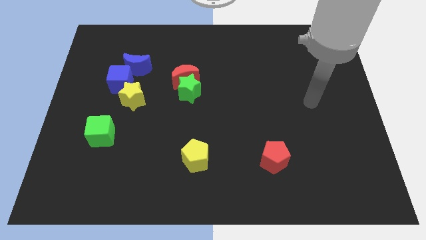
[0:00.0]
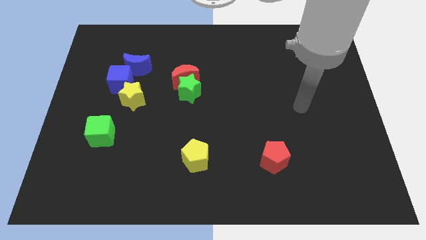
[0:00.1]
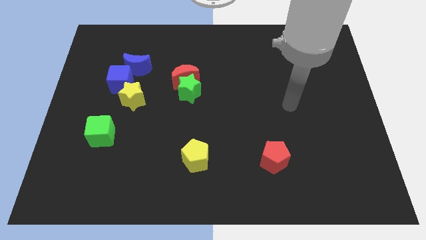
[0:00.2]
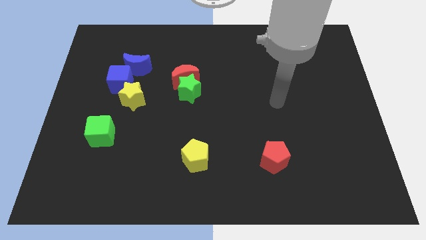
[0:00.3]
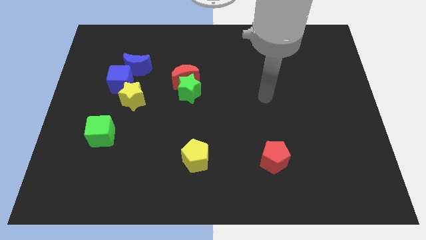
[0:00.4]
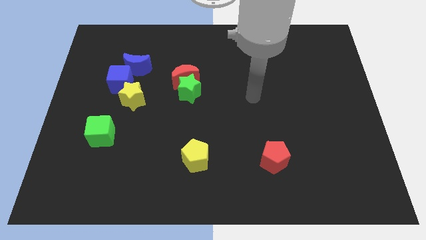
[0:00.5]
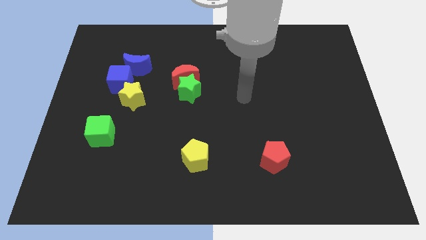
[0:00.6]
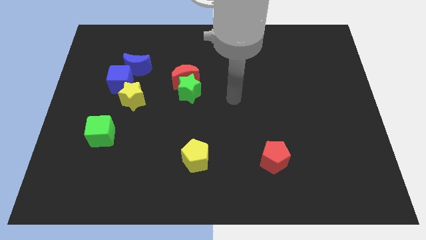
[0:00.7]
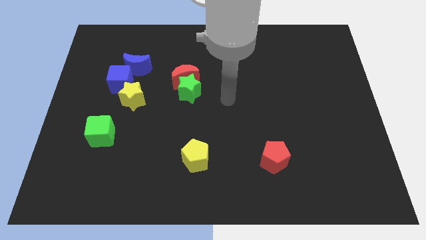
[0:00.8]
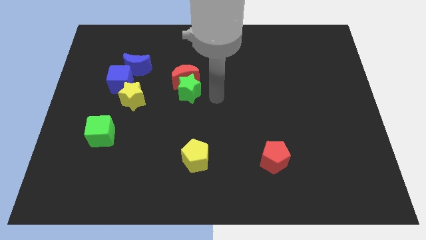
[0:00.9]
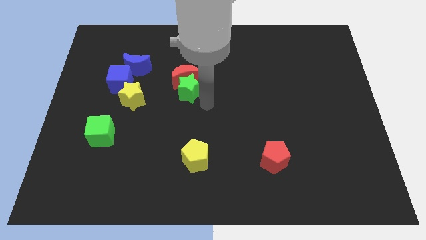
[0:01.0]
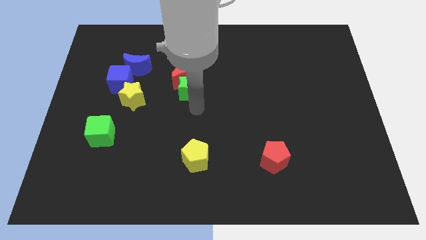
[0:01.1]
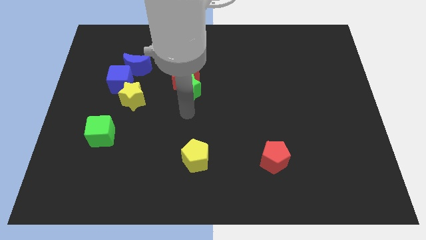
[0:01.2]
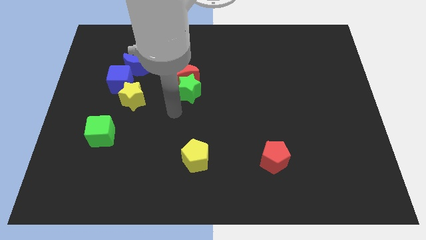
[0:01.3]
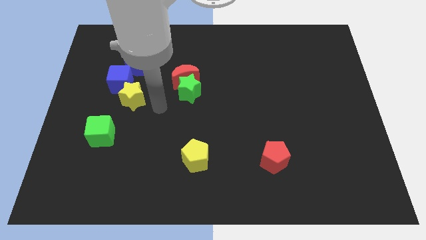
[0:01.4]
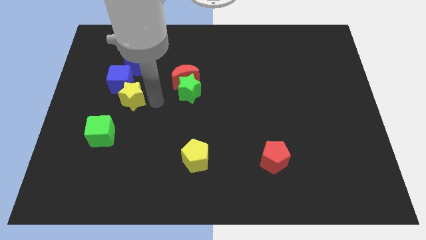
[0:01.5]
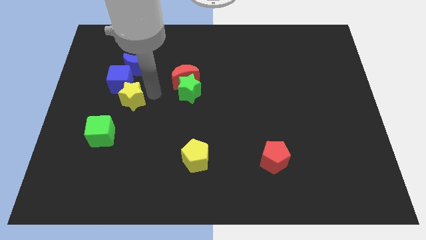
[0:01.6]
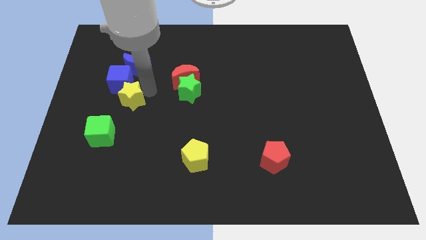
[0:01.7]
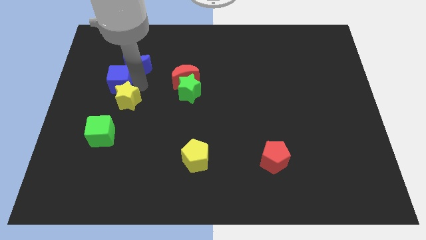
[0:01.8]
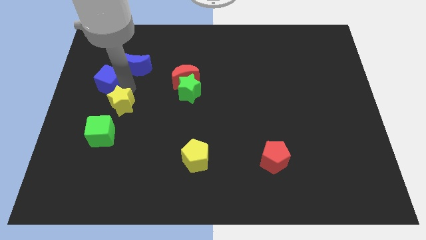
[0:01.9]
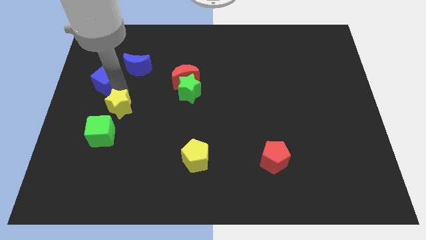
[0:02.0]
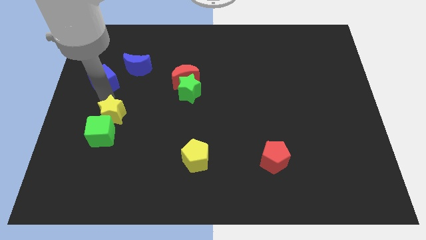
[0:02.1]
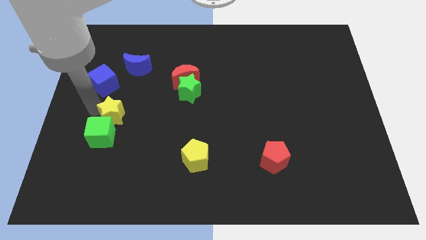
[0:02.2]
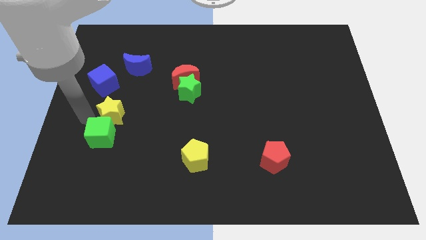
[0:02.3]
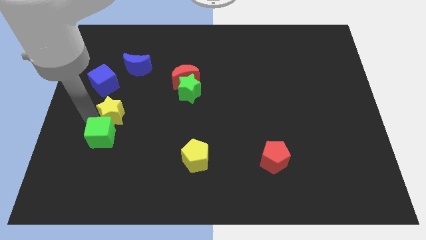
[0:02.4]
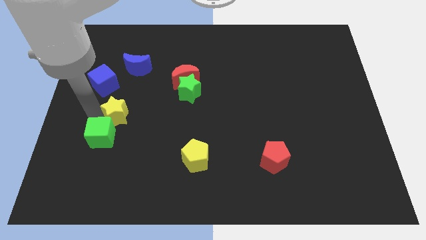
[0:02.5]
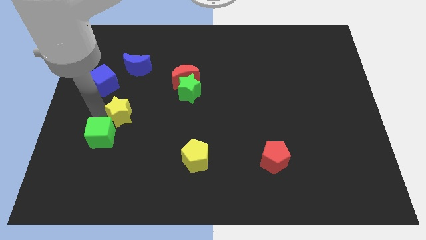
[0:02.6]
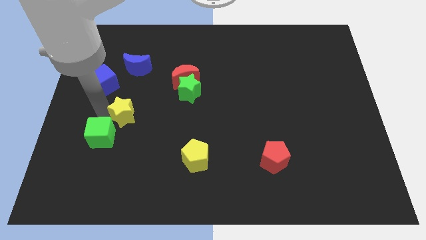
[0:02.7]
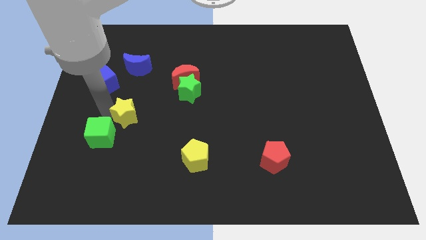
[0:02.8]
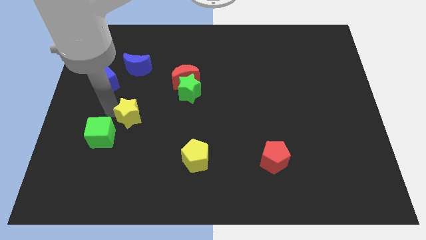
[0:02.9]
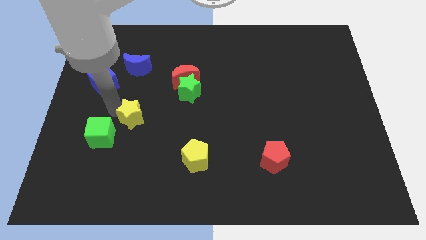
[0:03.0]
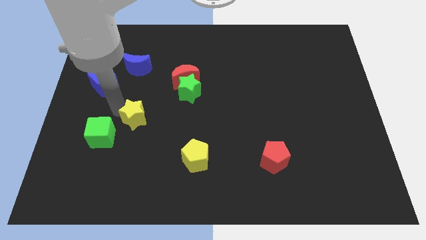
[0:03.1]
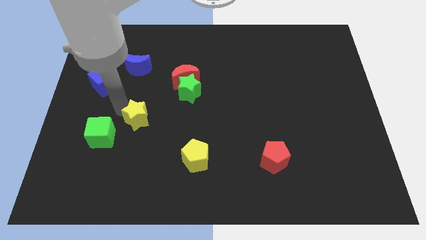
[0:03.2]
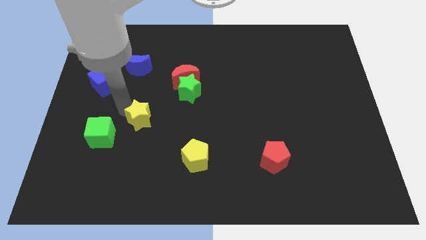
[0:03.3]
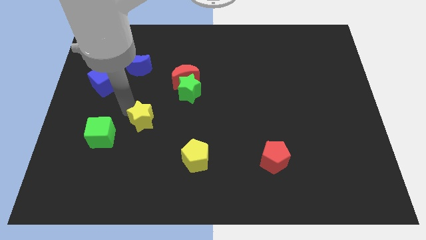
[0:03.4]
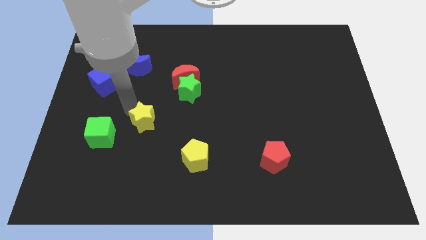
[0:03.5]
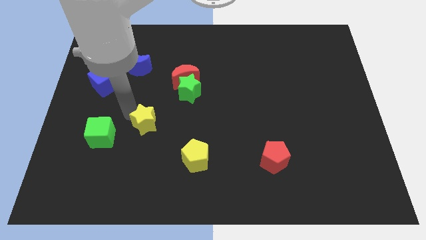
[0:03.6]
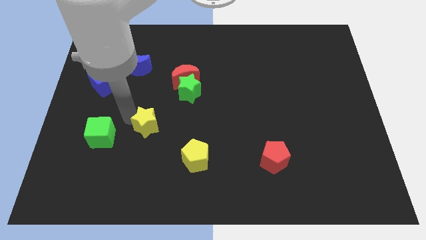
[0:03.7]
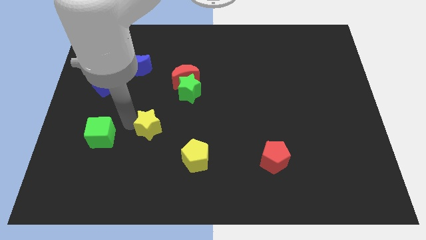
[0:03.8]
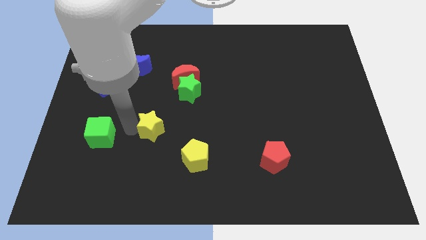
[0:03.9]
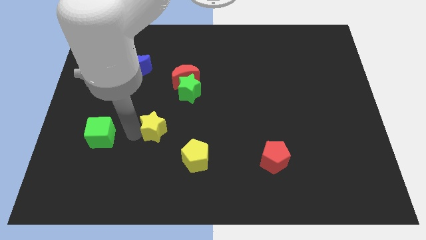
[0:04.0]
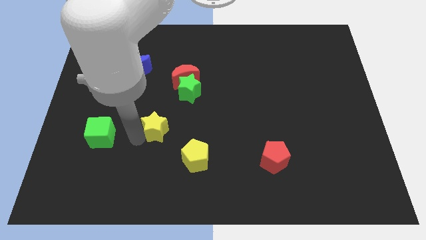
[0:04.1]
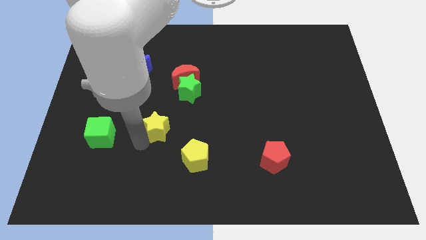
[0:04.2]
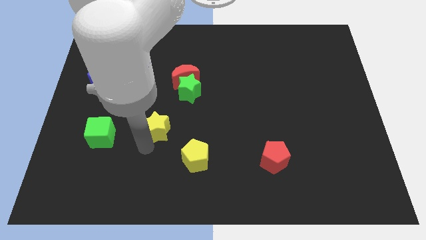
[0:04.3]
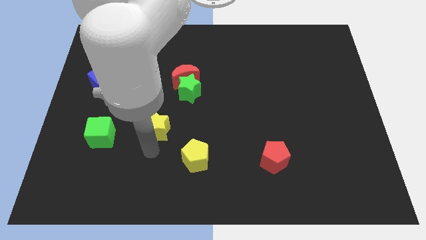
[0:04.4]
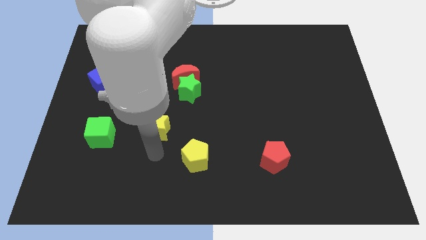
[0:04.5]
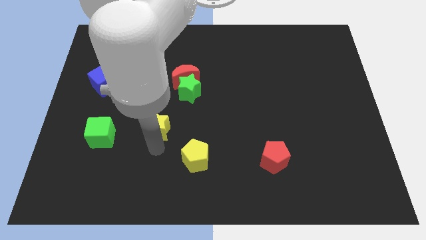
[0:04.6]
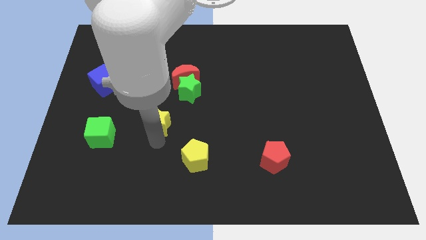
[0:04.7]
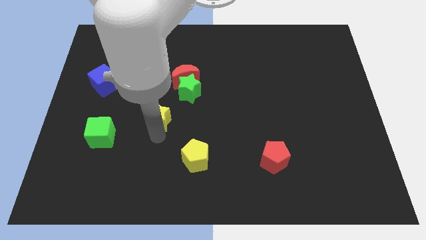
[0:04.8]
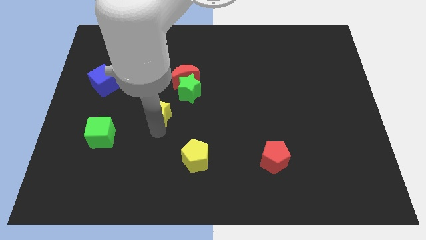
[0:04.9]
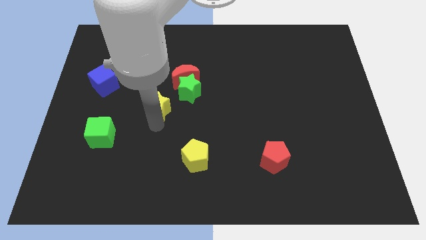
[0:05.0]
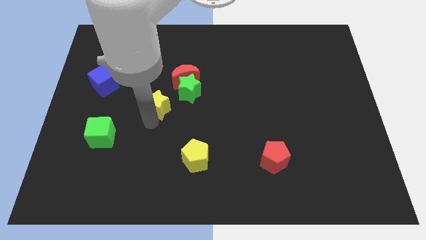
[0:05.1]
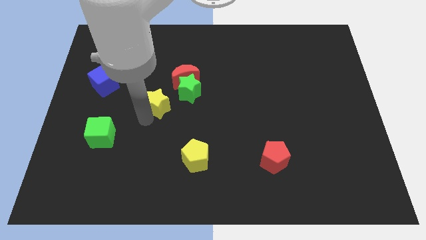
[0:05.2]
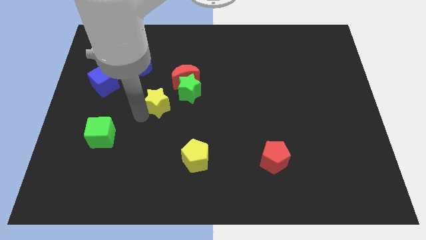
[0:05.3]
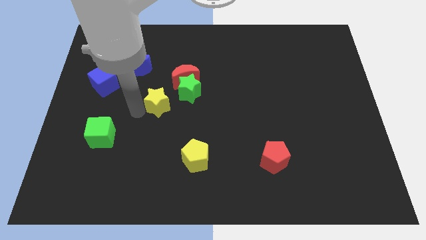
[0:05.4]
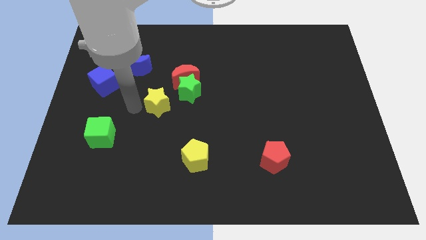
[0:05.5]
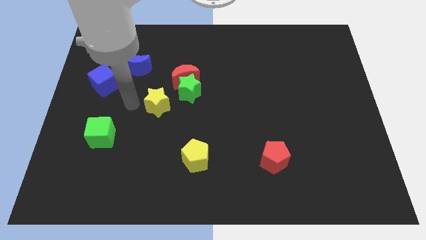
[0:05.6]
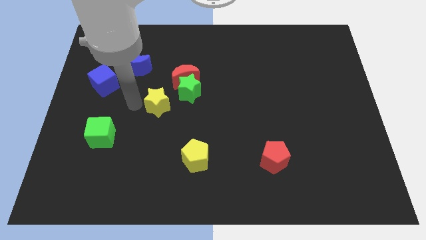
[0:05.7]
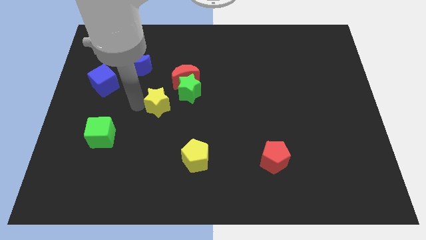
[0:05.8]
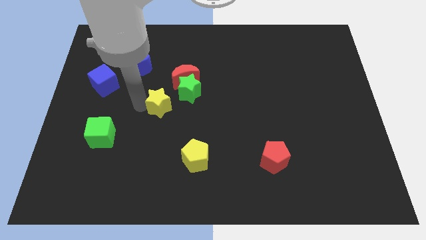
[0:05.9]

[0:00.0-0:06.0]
push the yellow star to the middle
